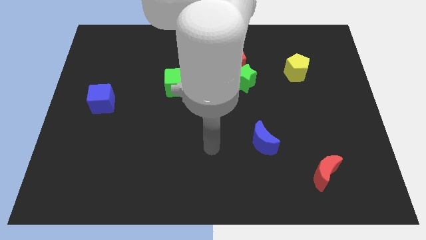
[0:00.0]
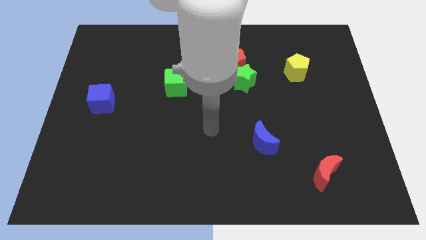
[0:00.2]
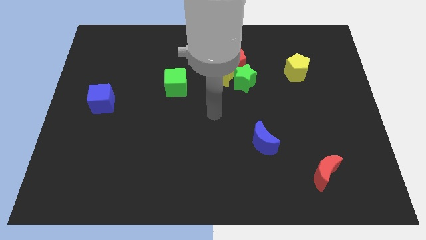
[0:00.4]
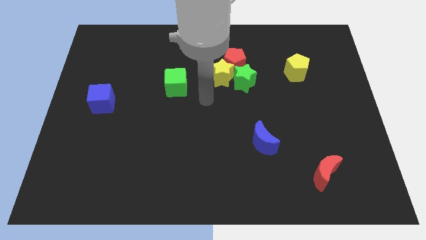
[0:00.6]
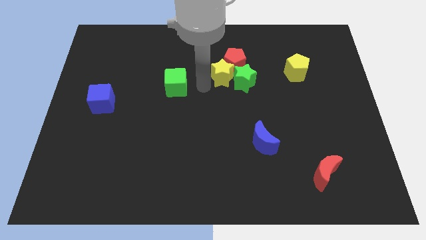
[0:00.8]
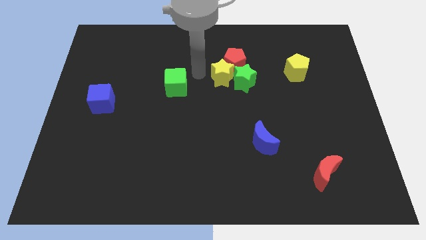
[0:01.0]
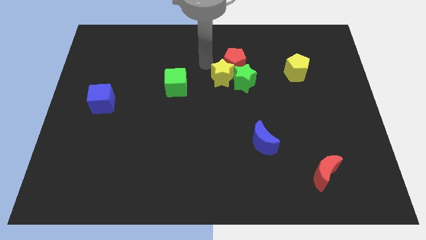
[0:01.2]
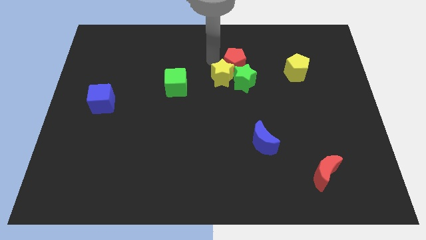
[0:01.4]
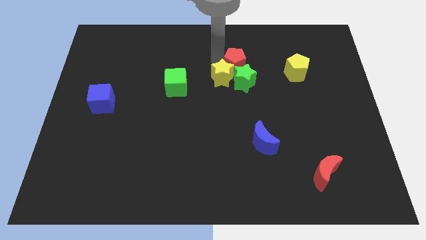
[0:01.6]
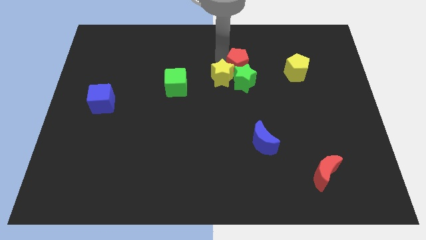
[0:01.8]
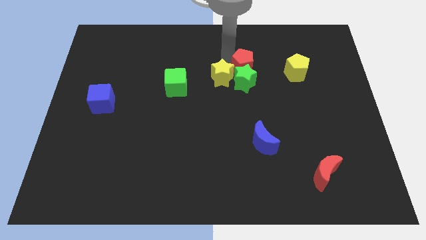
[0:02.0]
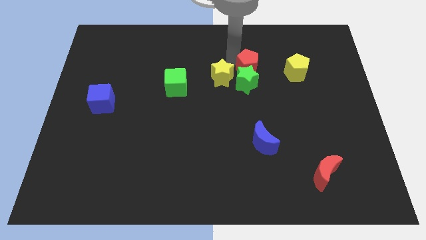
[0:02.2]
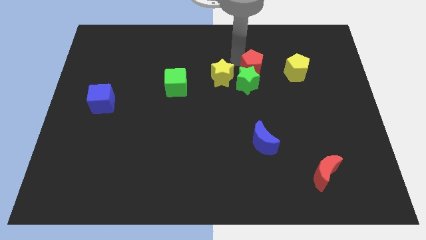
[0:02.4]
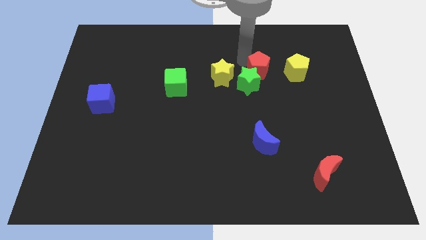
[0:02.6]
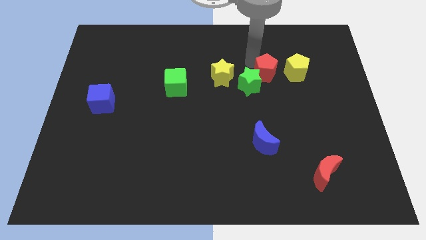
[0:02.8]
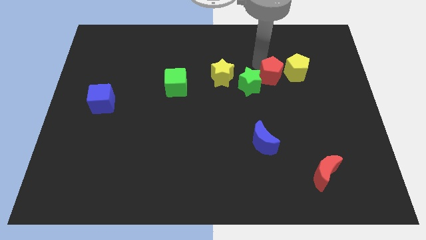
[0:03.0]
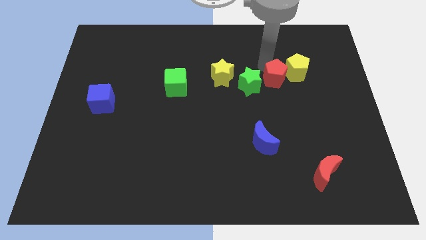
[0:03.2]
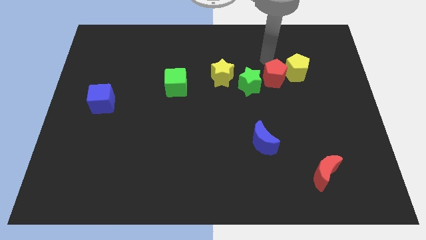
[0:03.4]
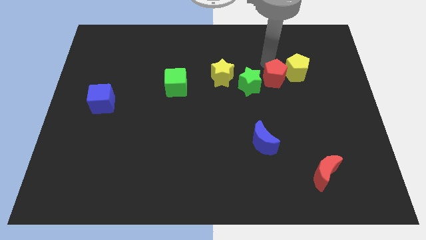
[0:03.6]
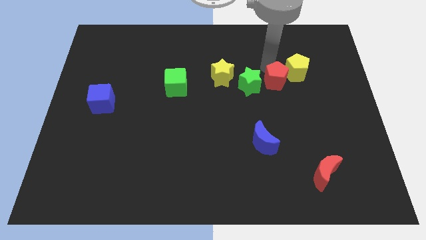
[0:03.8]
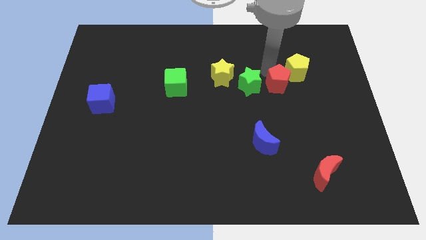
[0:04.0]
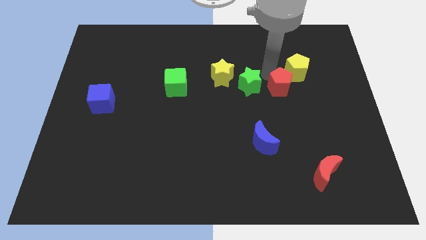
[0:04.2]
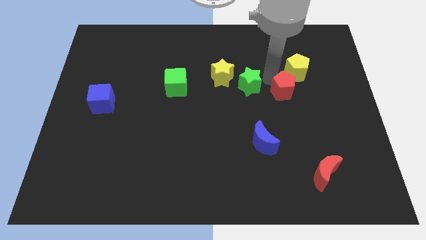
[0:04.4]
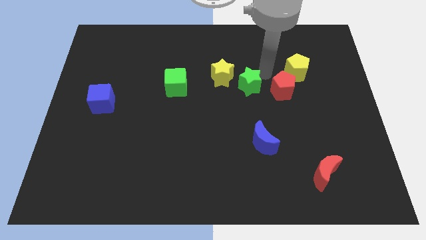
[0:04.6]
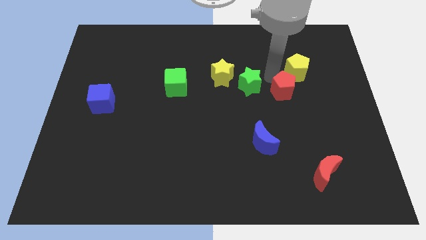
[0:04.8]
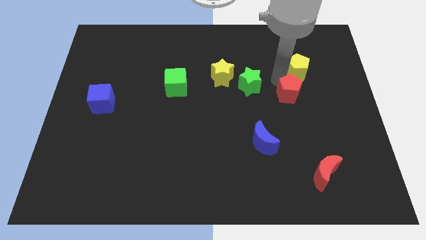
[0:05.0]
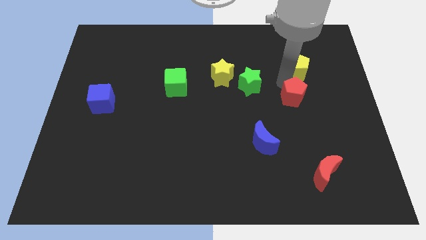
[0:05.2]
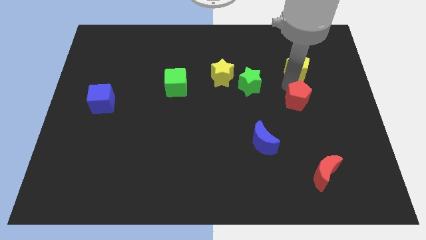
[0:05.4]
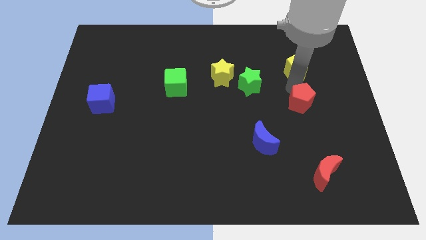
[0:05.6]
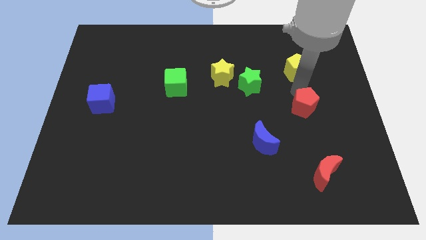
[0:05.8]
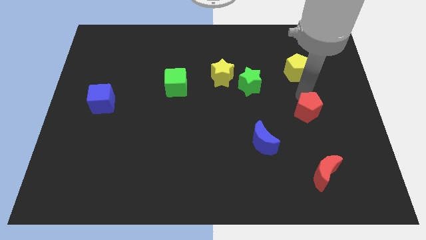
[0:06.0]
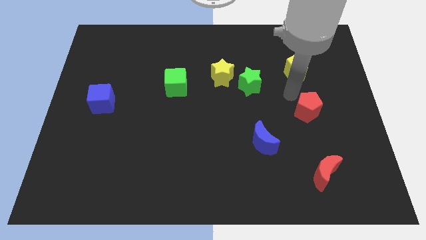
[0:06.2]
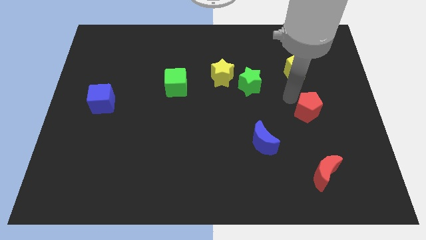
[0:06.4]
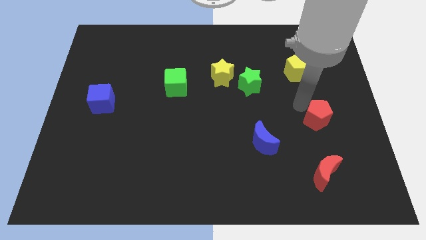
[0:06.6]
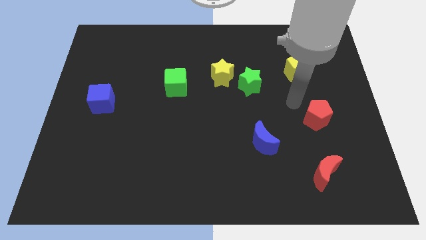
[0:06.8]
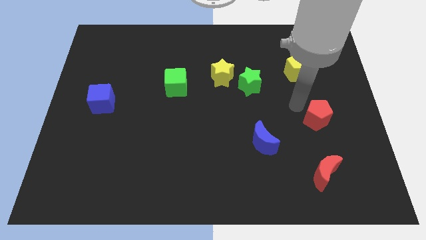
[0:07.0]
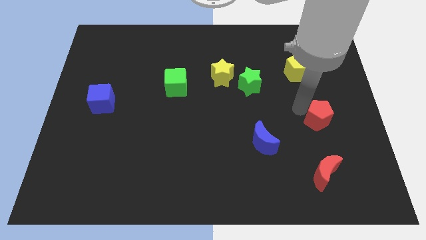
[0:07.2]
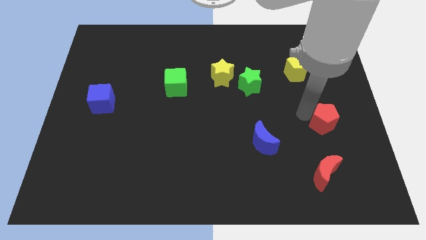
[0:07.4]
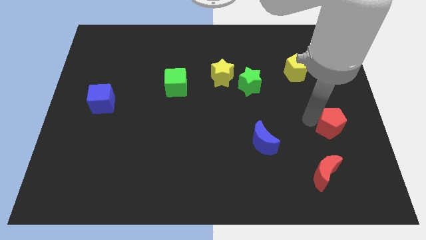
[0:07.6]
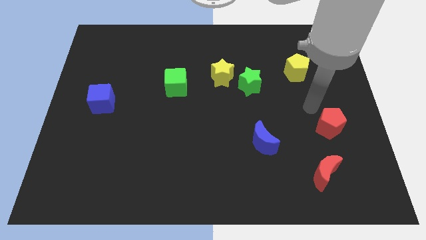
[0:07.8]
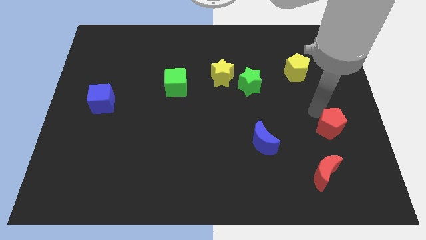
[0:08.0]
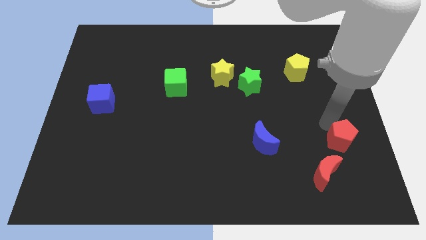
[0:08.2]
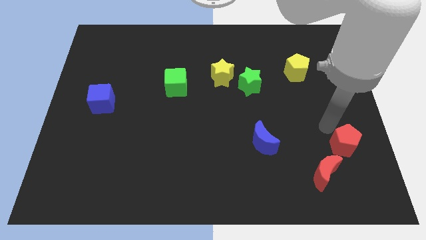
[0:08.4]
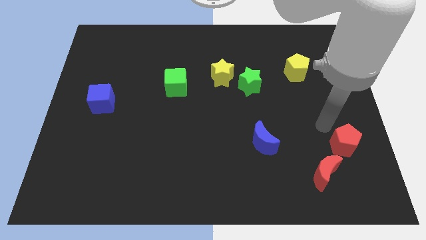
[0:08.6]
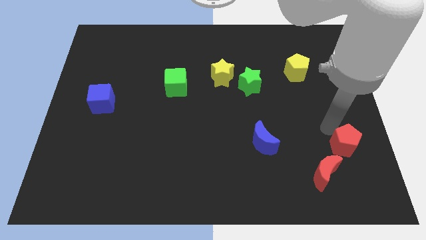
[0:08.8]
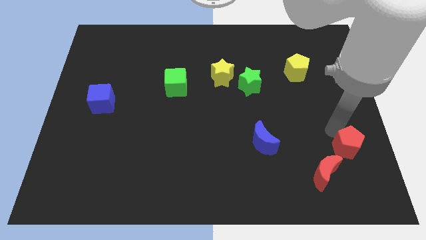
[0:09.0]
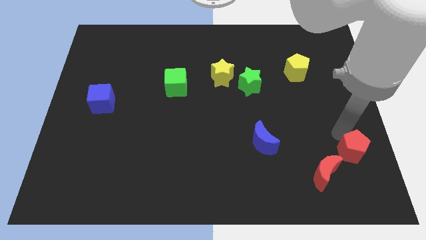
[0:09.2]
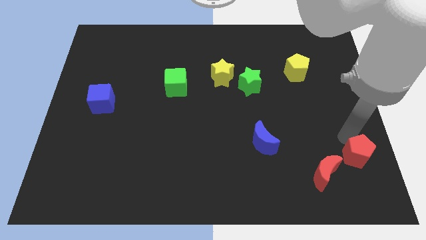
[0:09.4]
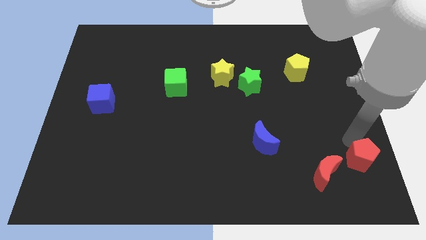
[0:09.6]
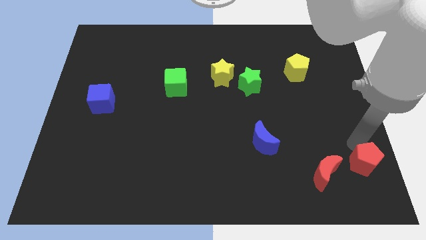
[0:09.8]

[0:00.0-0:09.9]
slide the red pentagon to the bottom right corner

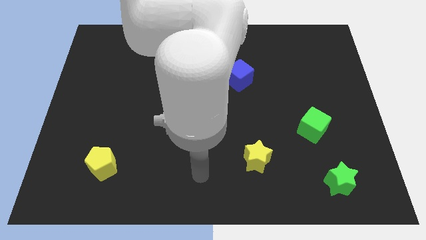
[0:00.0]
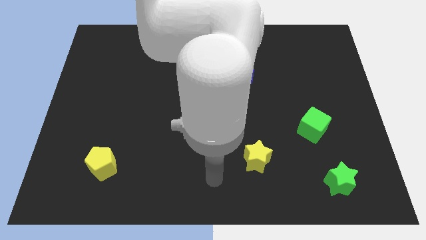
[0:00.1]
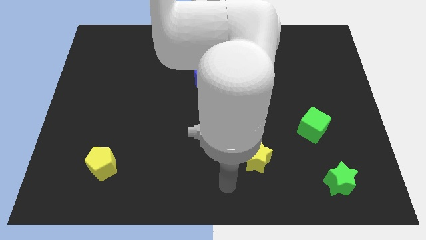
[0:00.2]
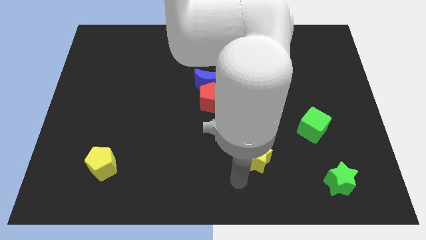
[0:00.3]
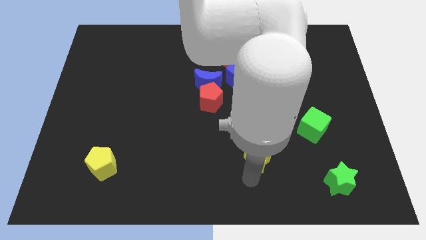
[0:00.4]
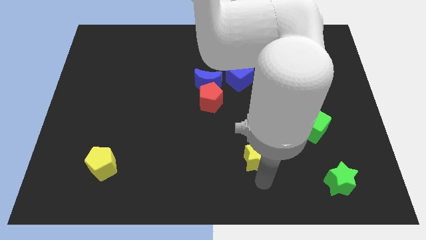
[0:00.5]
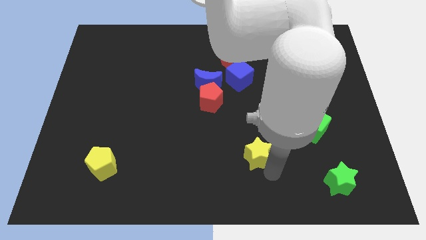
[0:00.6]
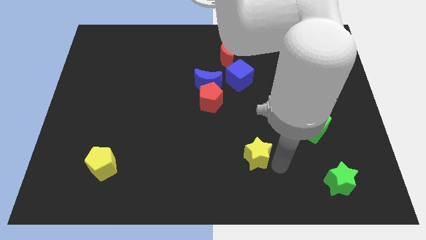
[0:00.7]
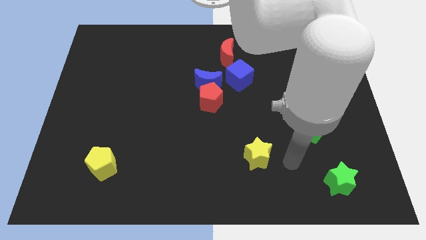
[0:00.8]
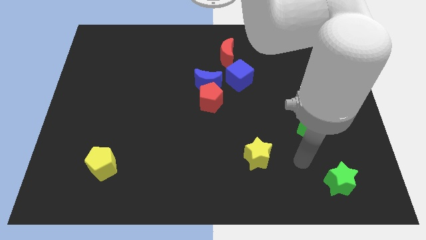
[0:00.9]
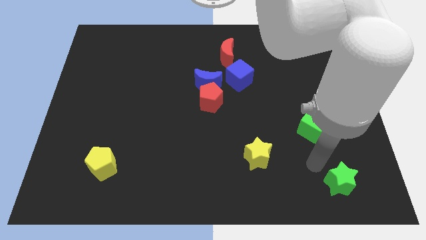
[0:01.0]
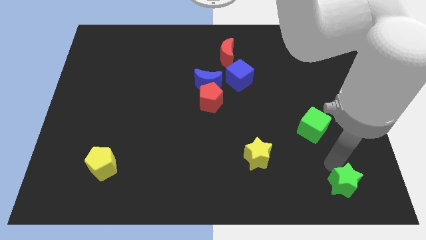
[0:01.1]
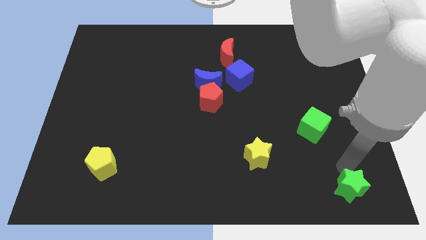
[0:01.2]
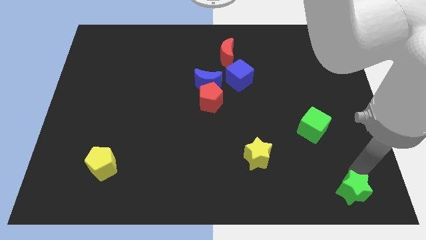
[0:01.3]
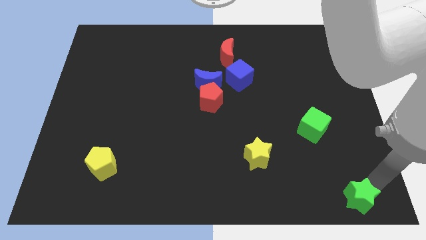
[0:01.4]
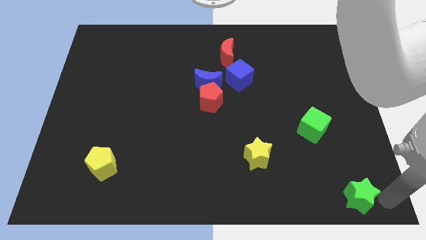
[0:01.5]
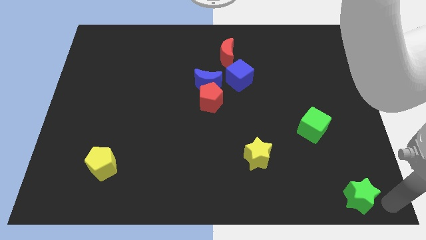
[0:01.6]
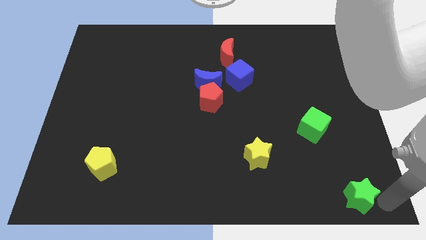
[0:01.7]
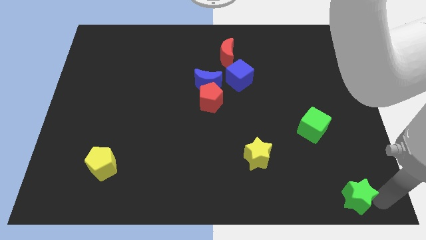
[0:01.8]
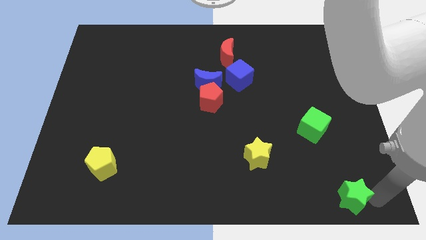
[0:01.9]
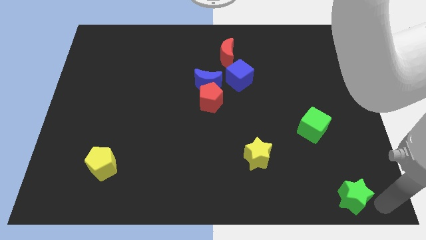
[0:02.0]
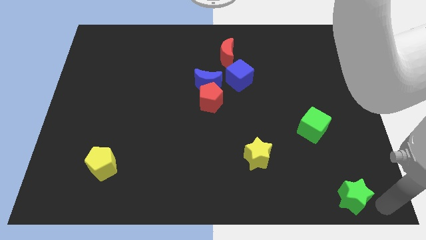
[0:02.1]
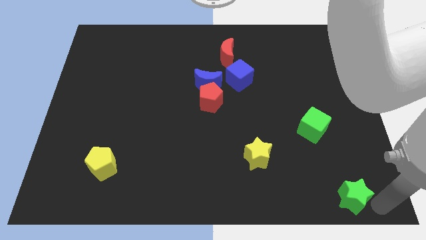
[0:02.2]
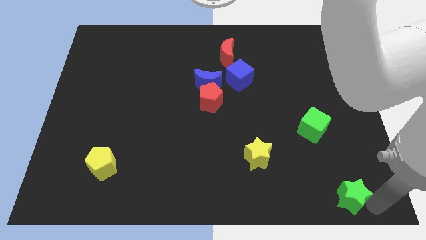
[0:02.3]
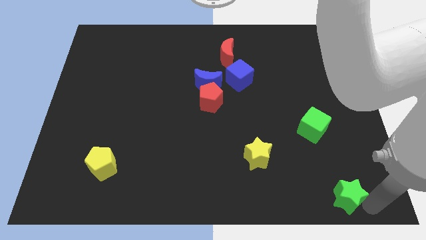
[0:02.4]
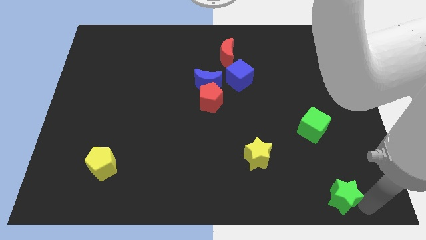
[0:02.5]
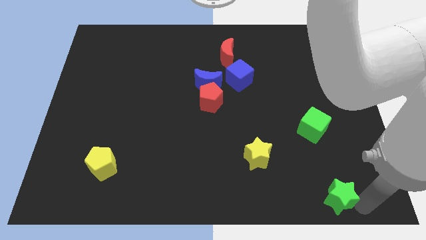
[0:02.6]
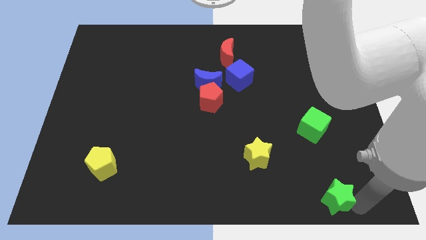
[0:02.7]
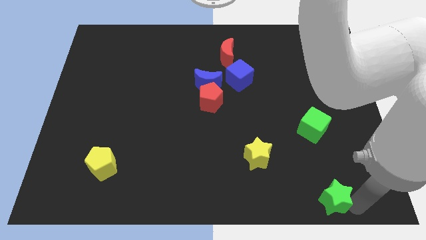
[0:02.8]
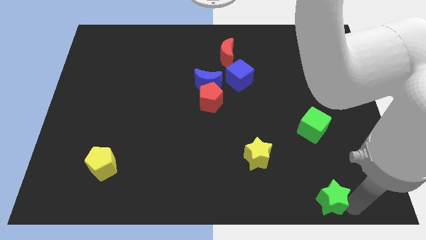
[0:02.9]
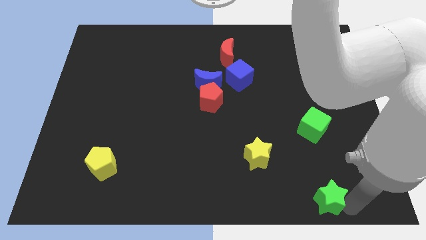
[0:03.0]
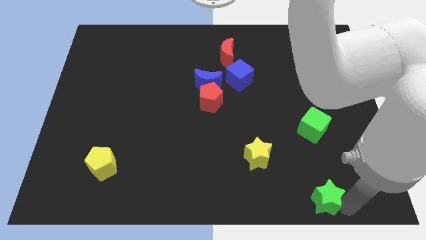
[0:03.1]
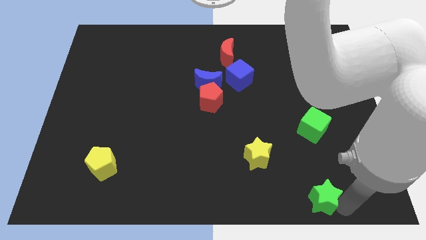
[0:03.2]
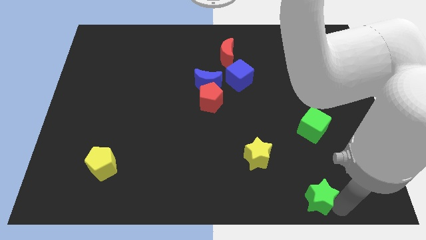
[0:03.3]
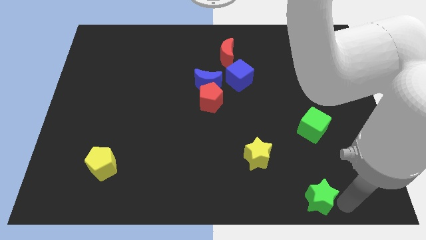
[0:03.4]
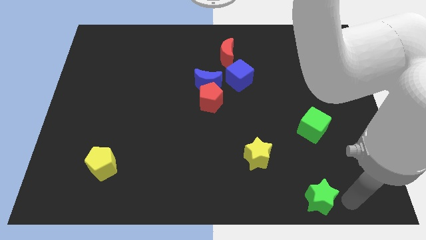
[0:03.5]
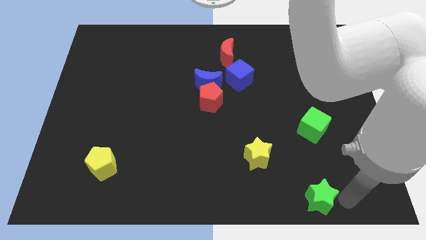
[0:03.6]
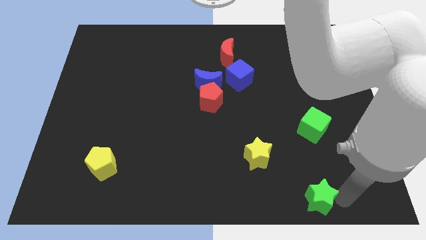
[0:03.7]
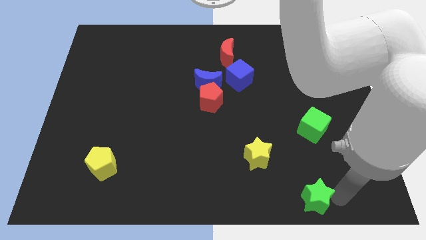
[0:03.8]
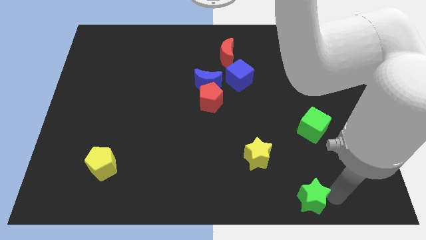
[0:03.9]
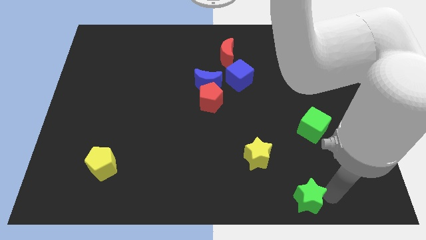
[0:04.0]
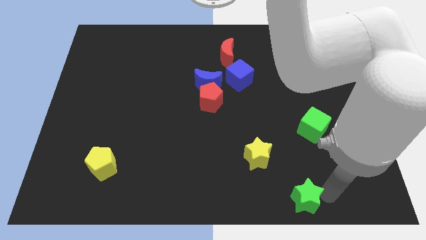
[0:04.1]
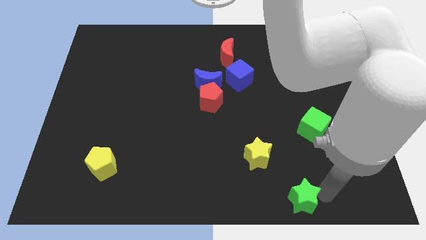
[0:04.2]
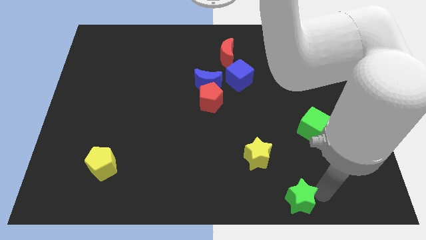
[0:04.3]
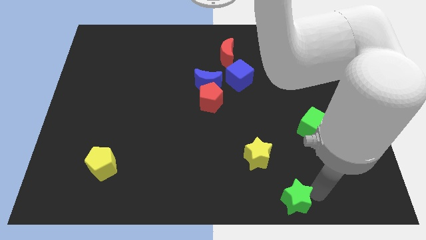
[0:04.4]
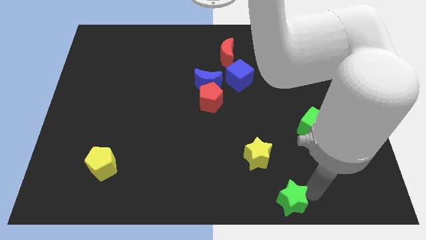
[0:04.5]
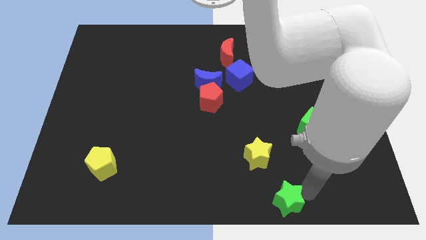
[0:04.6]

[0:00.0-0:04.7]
slide the green star to the bottom
